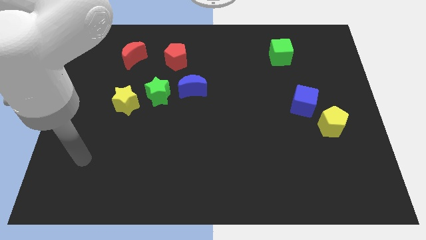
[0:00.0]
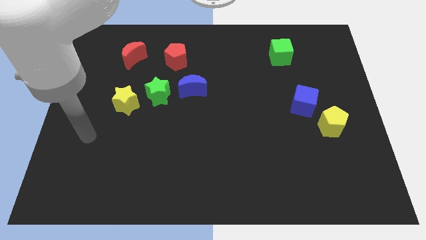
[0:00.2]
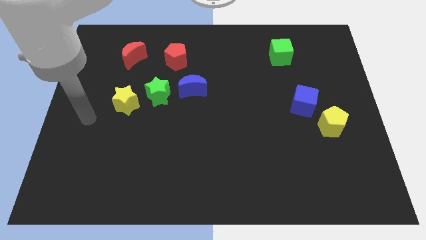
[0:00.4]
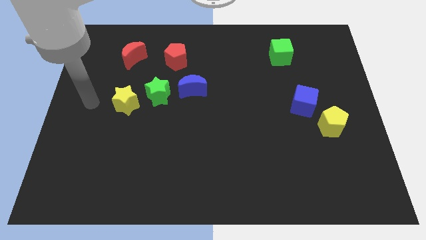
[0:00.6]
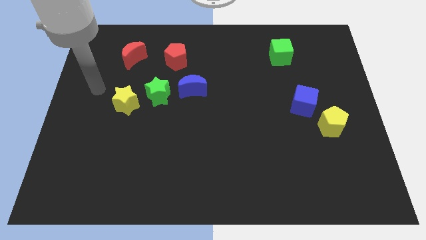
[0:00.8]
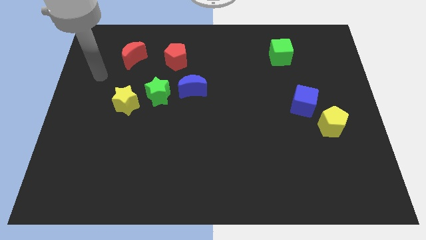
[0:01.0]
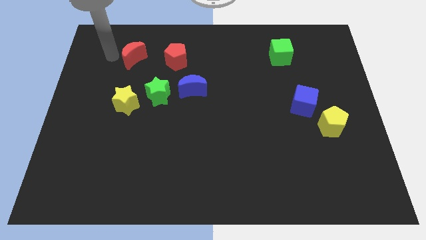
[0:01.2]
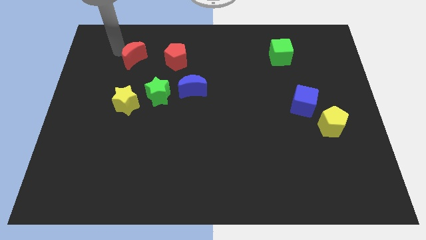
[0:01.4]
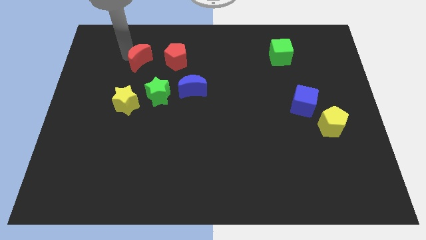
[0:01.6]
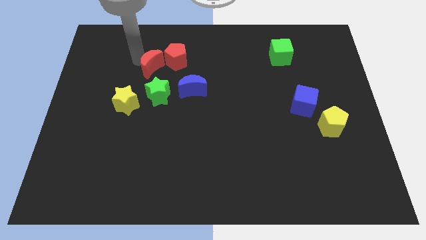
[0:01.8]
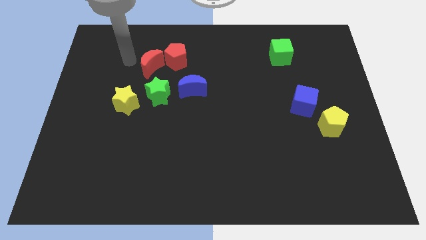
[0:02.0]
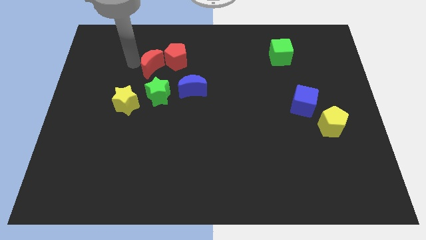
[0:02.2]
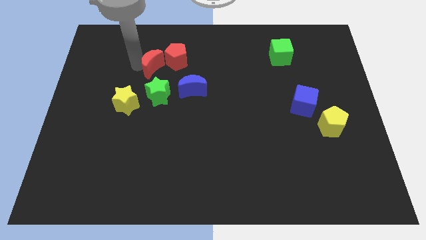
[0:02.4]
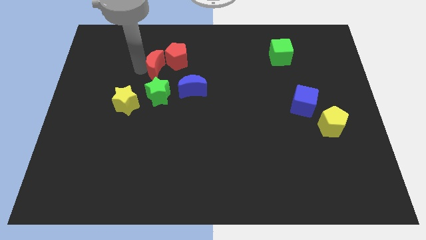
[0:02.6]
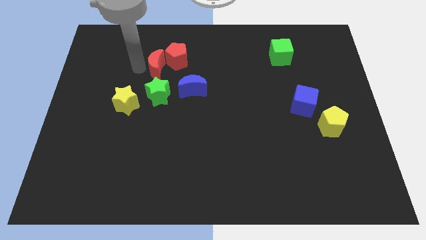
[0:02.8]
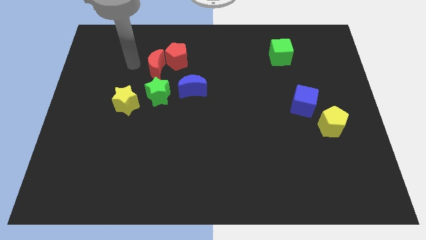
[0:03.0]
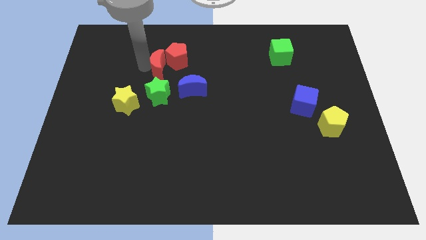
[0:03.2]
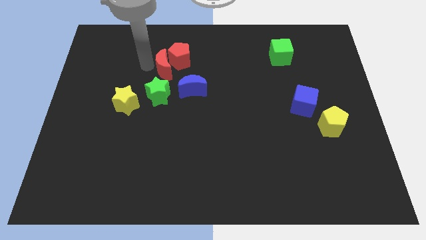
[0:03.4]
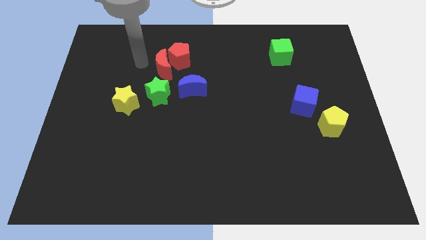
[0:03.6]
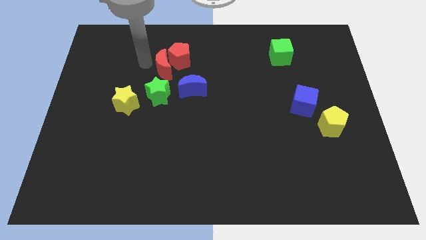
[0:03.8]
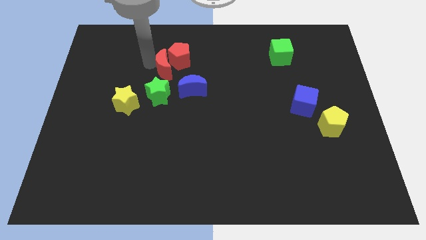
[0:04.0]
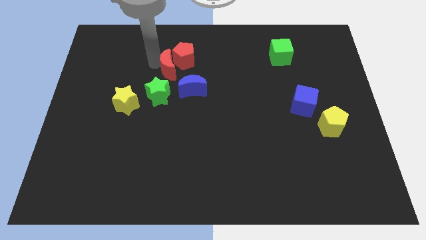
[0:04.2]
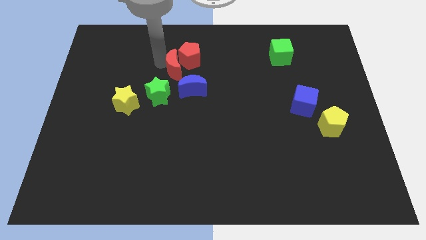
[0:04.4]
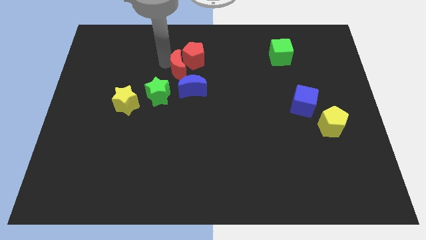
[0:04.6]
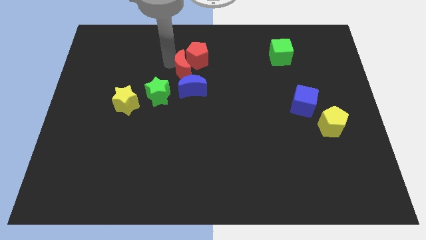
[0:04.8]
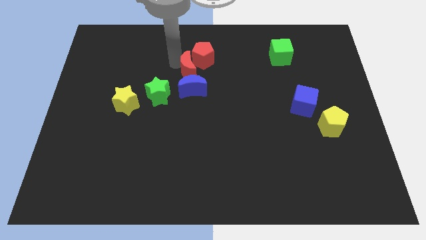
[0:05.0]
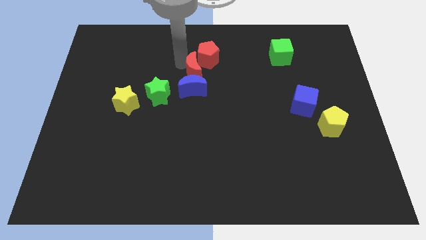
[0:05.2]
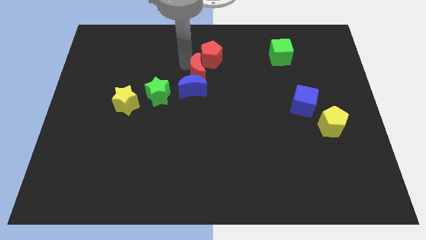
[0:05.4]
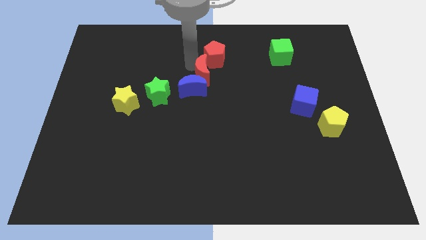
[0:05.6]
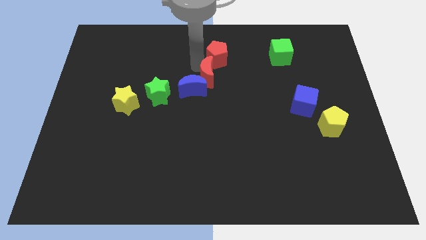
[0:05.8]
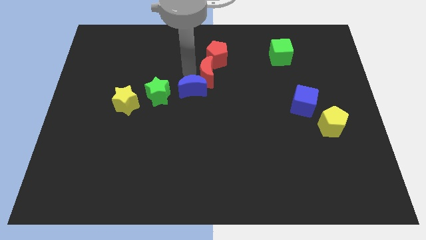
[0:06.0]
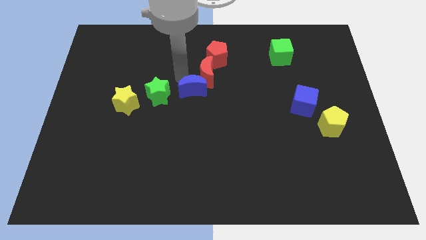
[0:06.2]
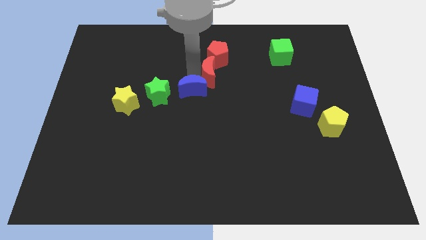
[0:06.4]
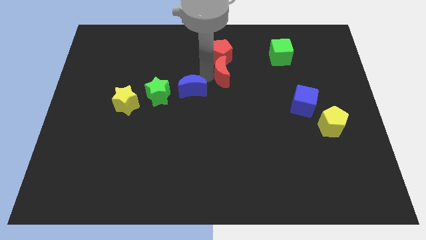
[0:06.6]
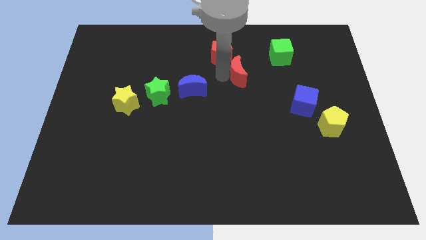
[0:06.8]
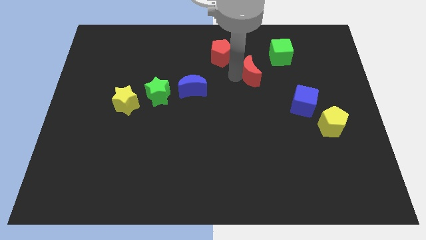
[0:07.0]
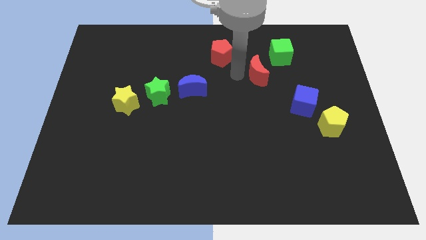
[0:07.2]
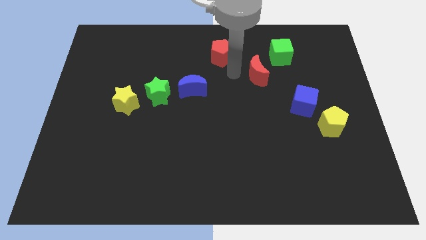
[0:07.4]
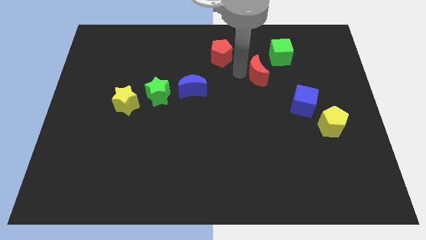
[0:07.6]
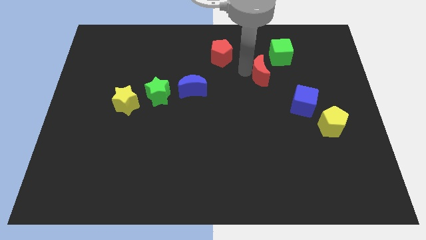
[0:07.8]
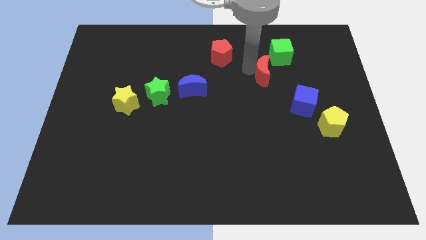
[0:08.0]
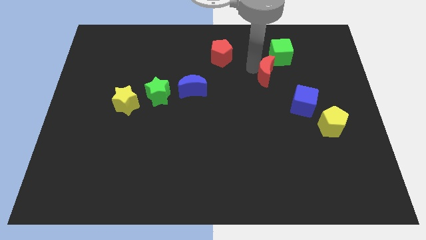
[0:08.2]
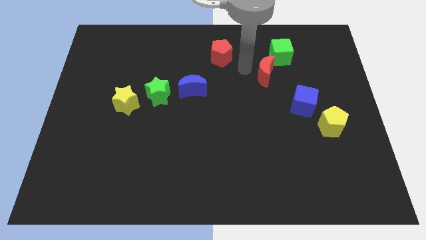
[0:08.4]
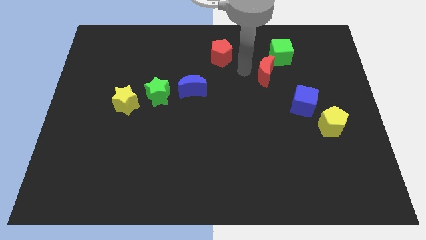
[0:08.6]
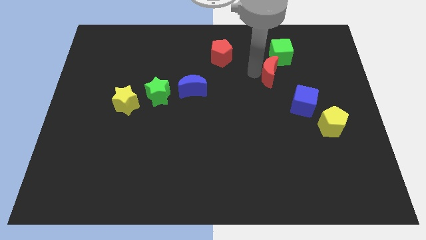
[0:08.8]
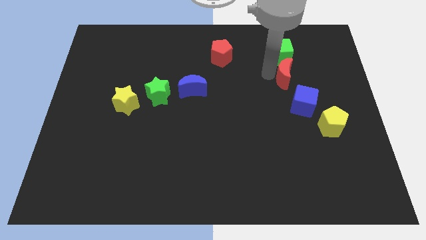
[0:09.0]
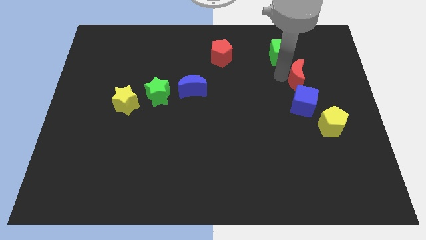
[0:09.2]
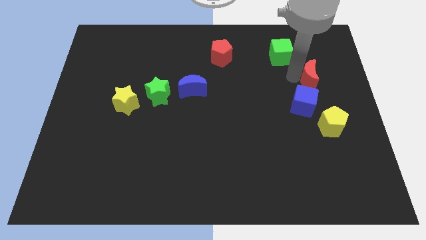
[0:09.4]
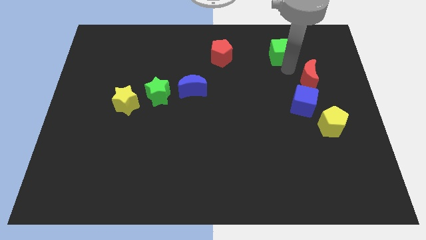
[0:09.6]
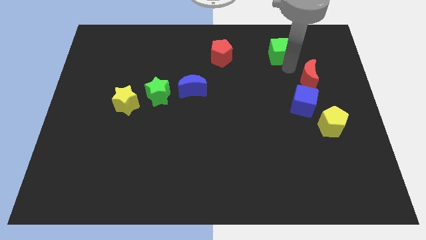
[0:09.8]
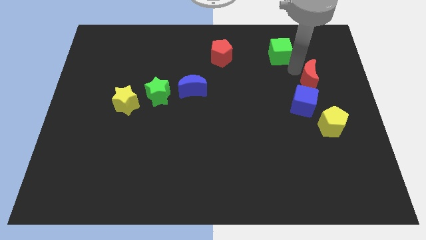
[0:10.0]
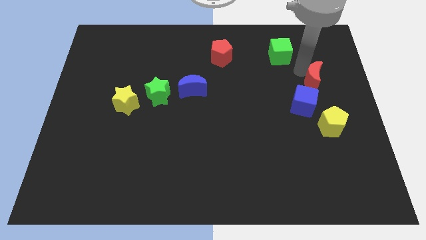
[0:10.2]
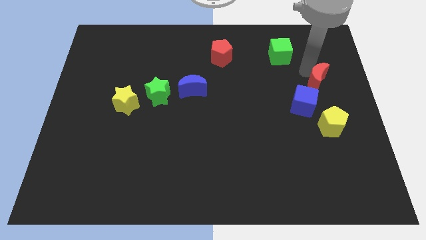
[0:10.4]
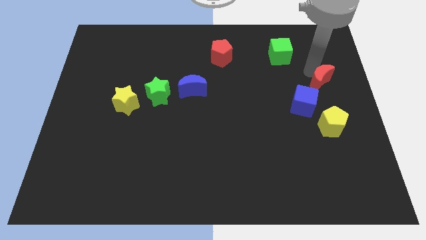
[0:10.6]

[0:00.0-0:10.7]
slide the red moon to the right side of the board

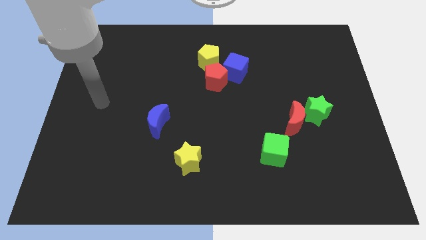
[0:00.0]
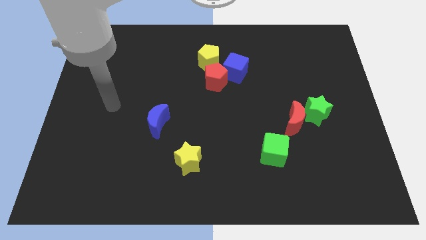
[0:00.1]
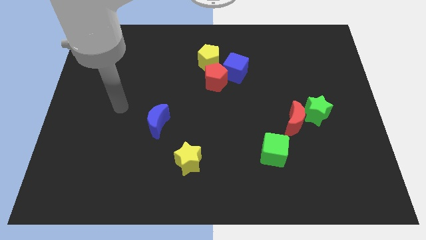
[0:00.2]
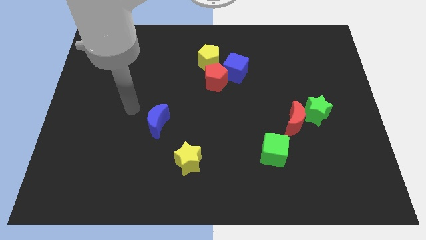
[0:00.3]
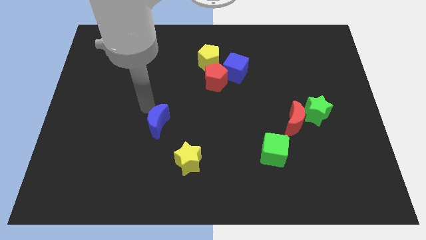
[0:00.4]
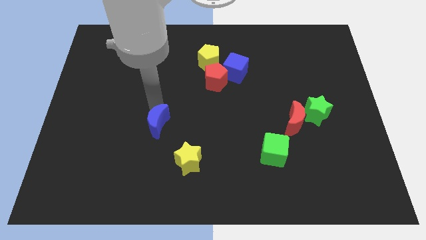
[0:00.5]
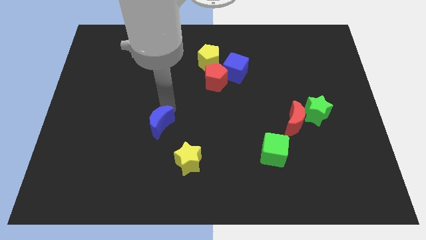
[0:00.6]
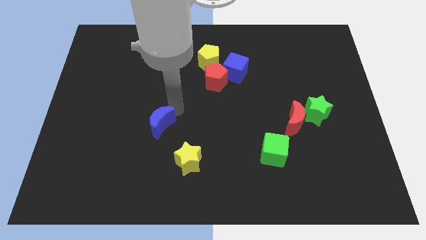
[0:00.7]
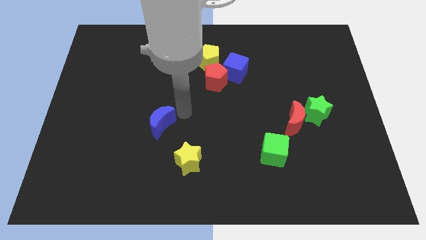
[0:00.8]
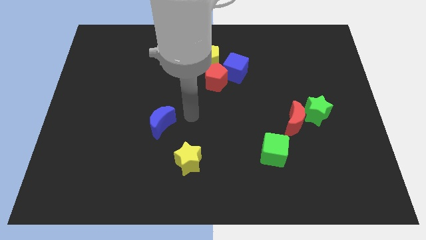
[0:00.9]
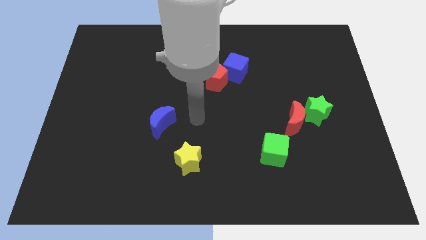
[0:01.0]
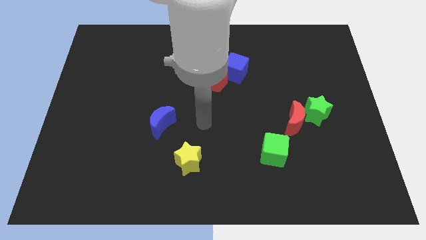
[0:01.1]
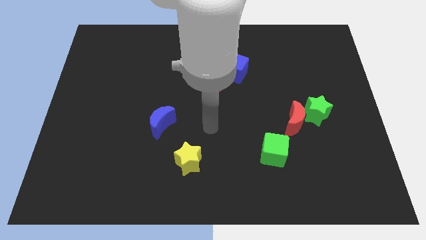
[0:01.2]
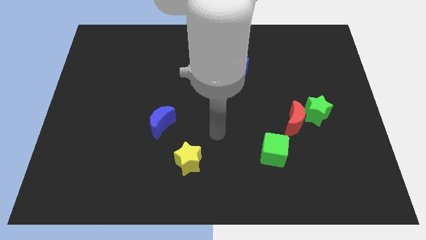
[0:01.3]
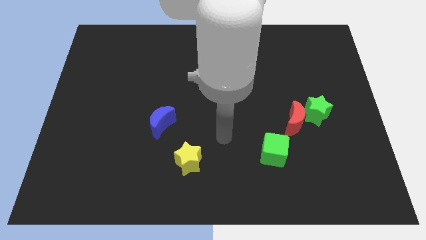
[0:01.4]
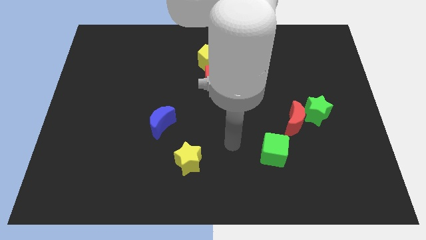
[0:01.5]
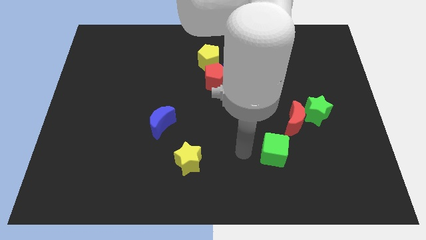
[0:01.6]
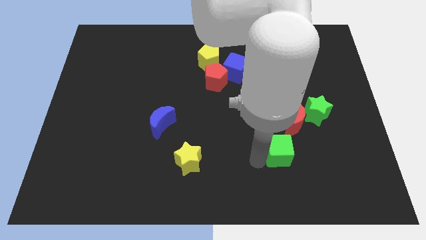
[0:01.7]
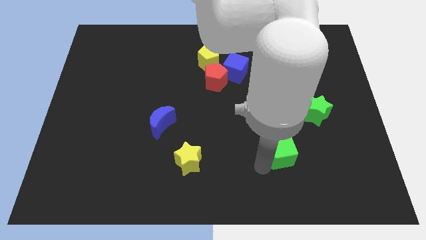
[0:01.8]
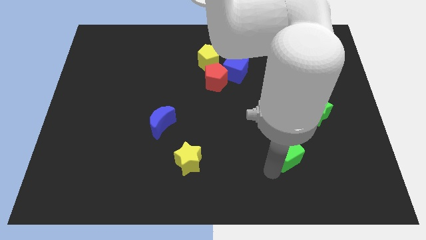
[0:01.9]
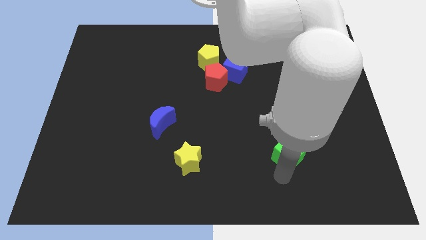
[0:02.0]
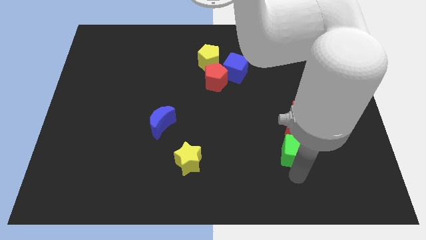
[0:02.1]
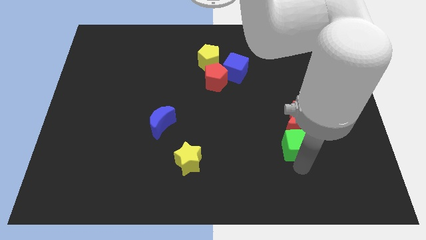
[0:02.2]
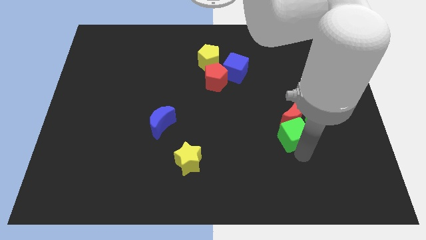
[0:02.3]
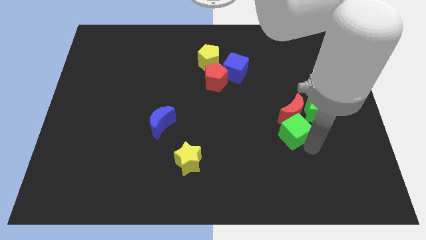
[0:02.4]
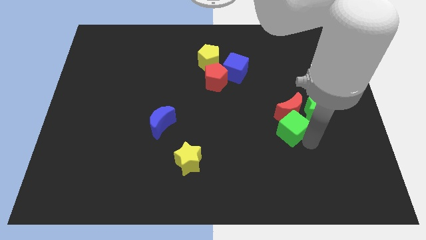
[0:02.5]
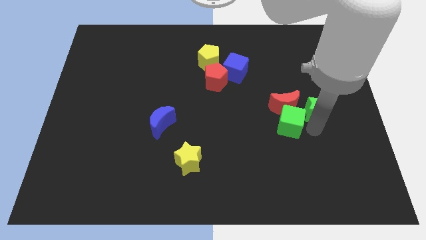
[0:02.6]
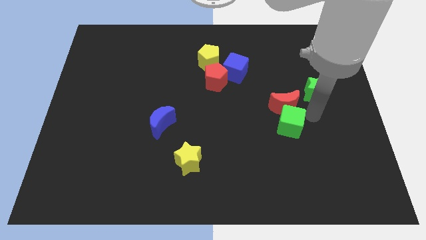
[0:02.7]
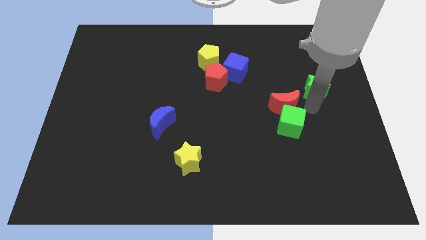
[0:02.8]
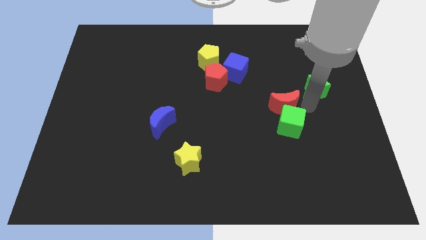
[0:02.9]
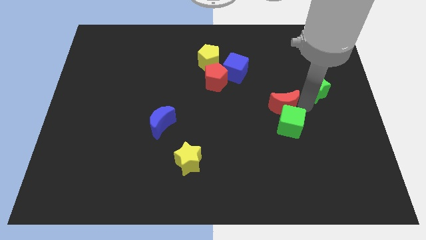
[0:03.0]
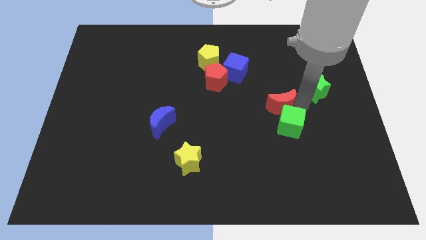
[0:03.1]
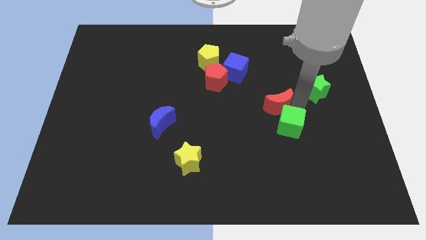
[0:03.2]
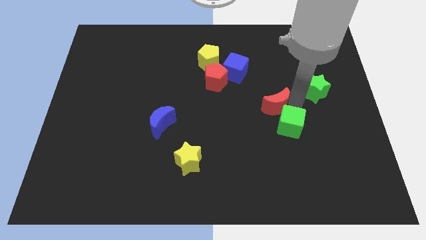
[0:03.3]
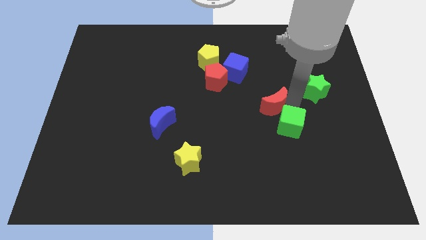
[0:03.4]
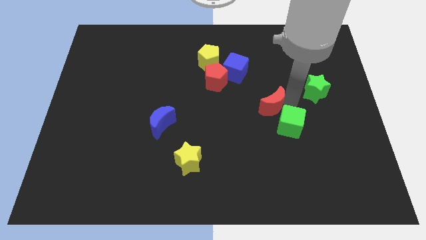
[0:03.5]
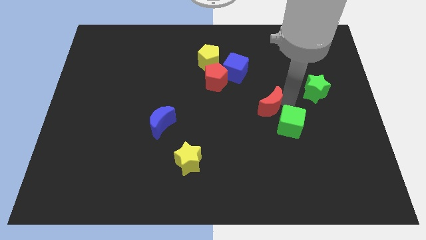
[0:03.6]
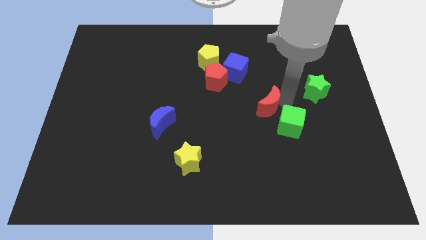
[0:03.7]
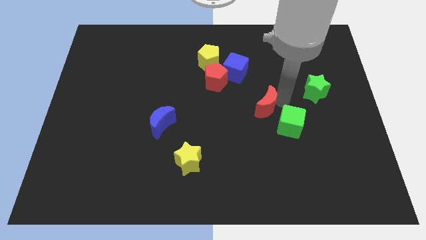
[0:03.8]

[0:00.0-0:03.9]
slide the red moon to the middle
